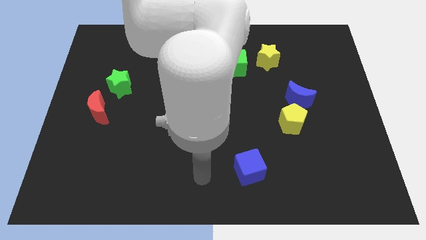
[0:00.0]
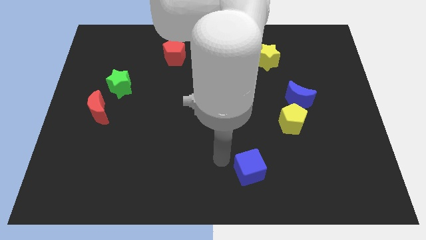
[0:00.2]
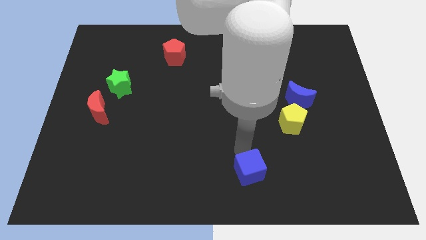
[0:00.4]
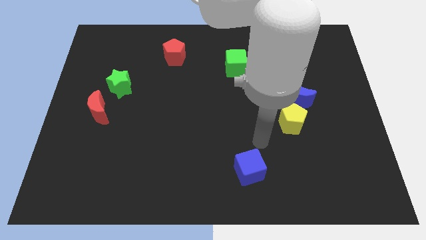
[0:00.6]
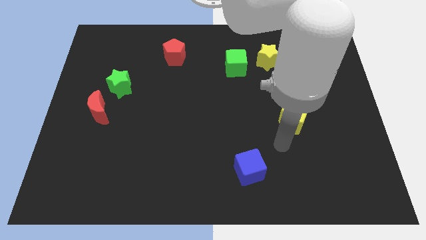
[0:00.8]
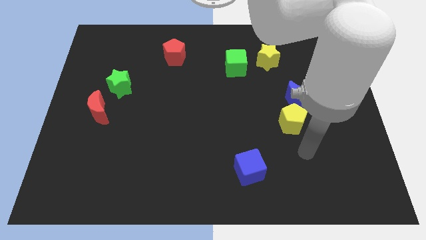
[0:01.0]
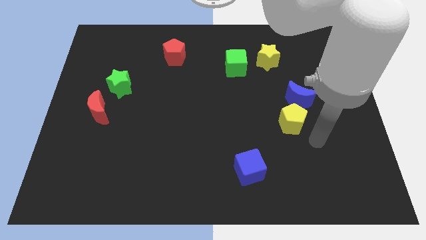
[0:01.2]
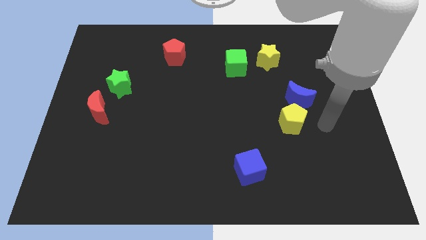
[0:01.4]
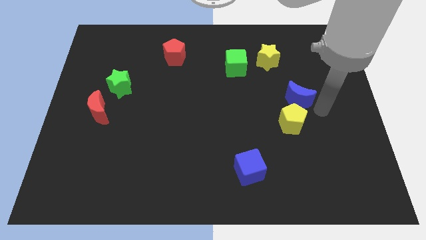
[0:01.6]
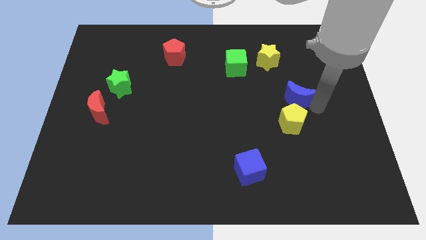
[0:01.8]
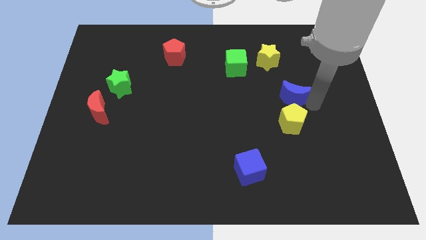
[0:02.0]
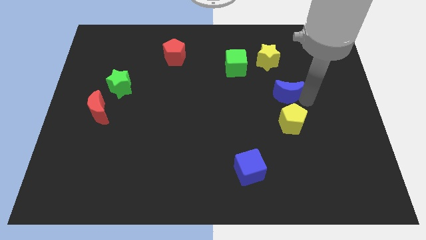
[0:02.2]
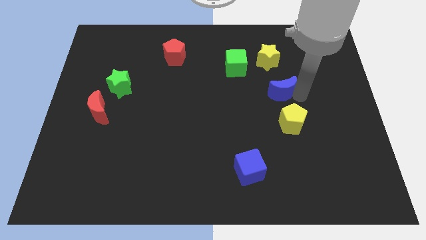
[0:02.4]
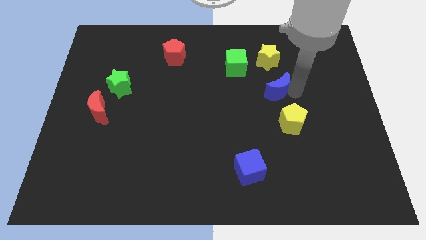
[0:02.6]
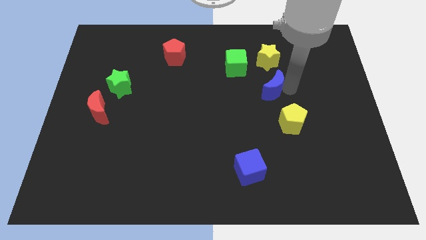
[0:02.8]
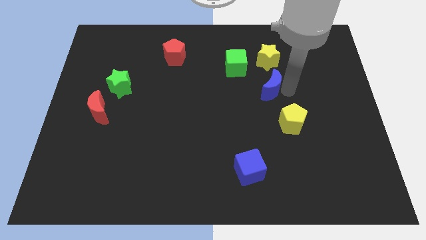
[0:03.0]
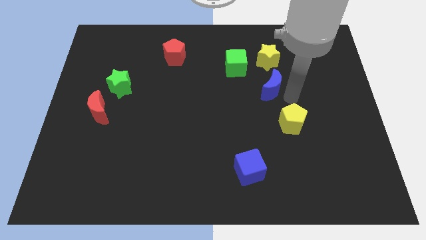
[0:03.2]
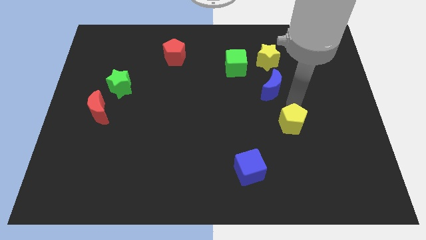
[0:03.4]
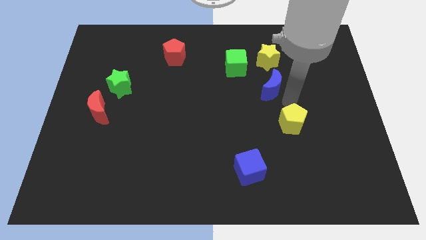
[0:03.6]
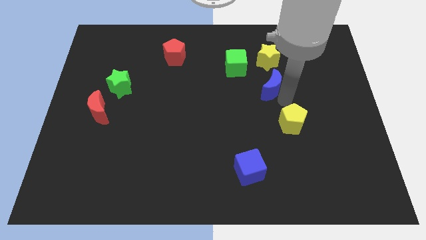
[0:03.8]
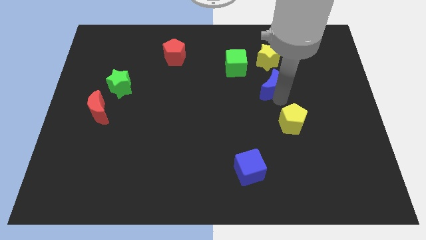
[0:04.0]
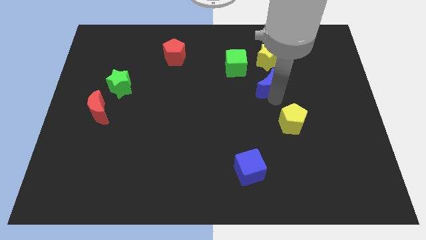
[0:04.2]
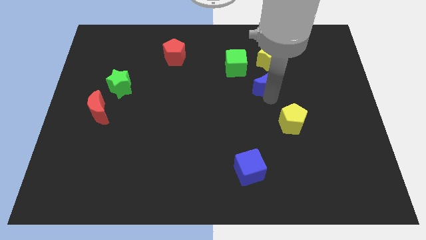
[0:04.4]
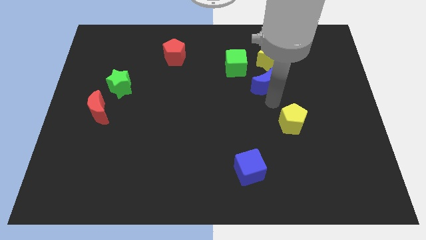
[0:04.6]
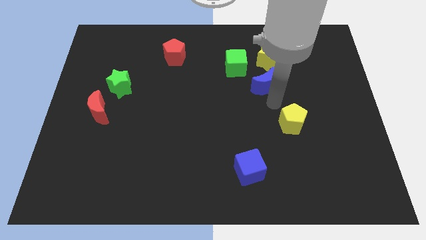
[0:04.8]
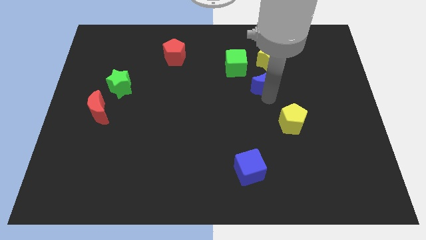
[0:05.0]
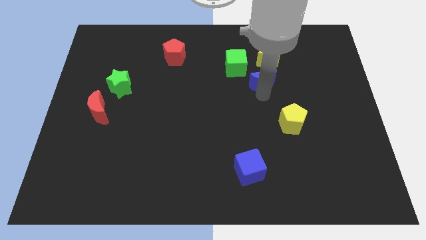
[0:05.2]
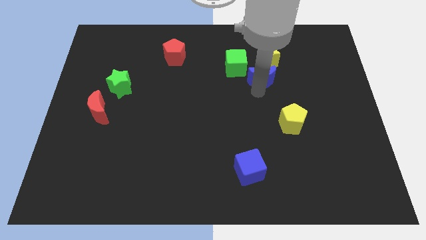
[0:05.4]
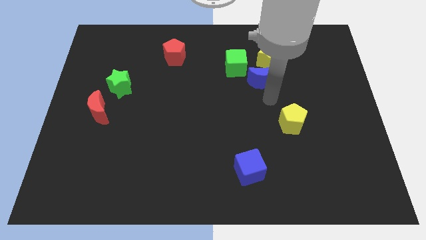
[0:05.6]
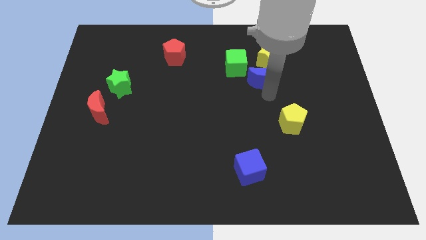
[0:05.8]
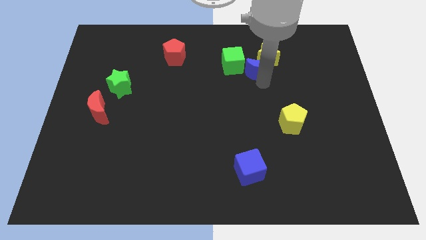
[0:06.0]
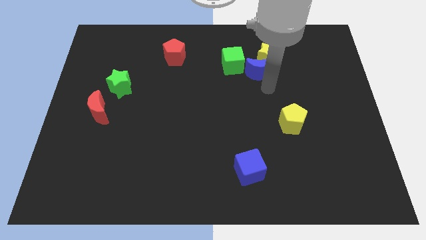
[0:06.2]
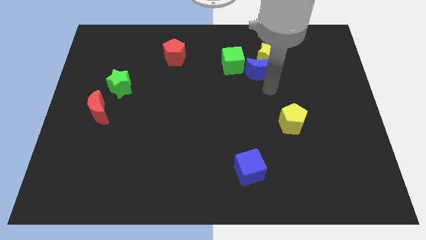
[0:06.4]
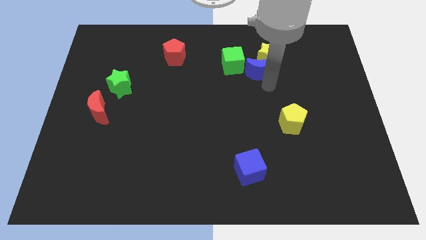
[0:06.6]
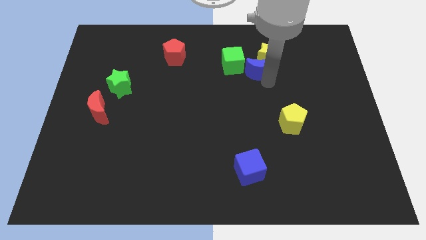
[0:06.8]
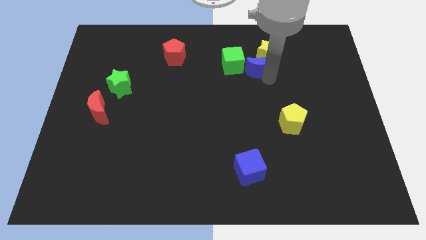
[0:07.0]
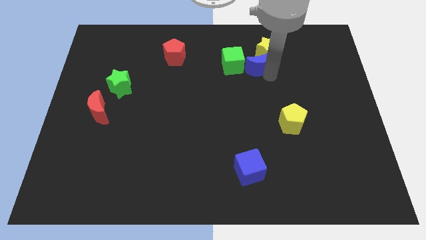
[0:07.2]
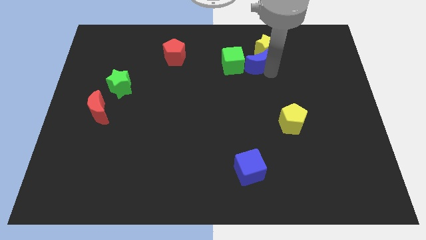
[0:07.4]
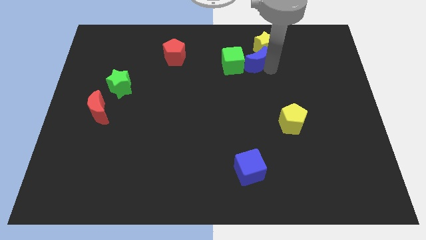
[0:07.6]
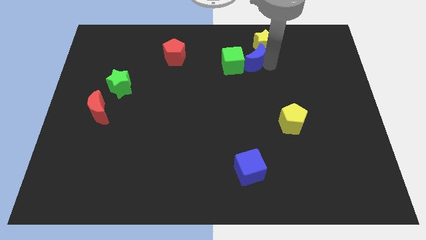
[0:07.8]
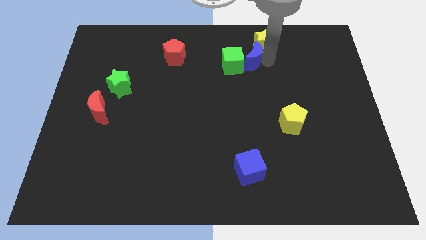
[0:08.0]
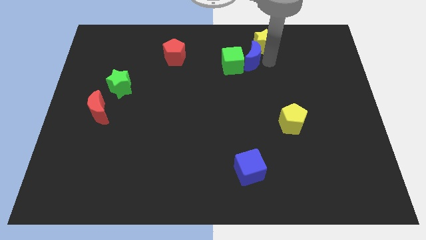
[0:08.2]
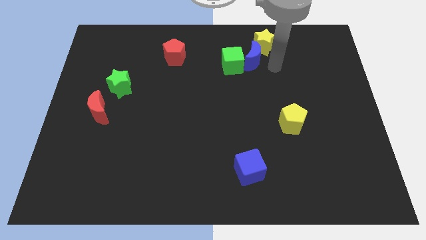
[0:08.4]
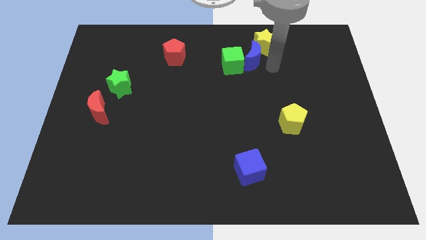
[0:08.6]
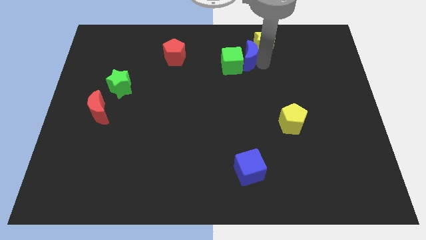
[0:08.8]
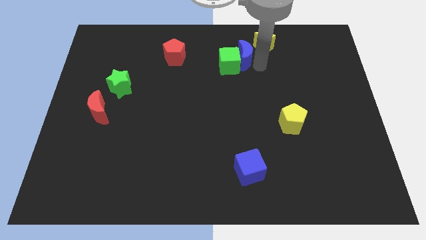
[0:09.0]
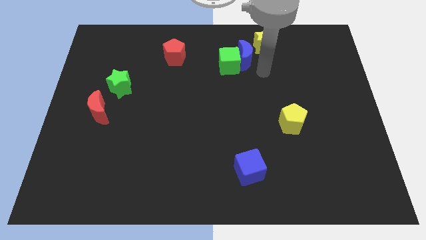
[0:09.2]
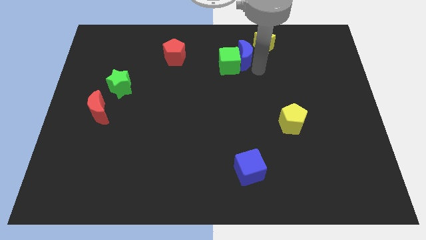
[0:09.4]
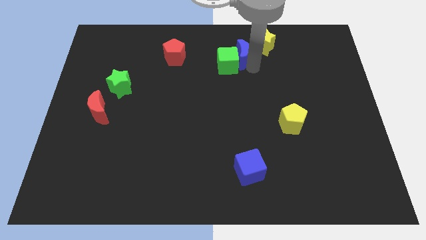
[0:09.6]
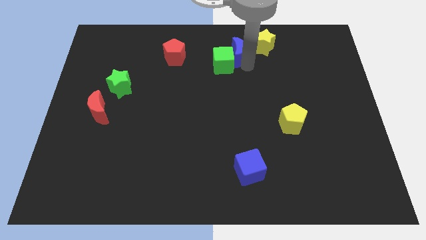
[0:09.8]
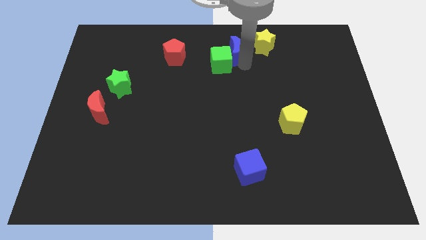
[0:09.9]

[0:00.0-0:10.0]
push the blue moon to the top

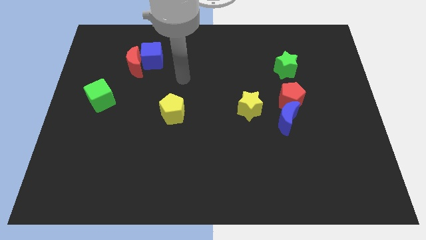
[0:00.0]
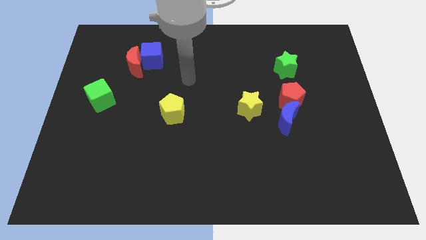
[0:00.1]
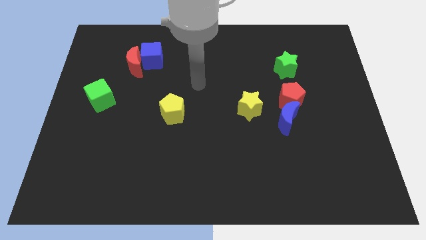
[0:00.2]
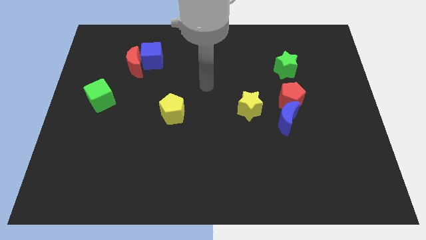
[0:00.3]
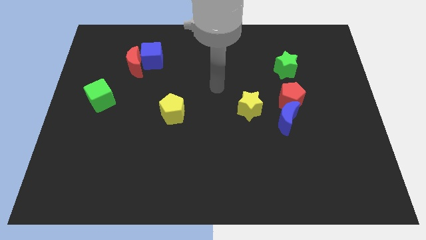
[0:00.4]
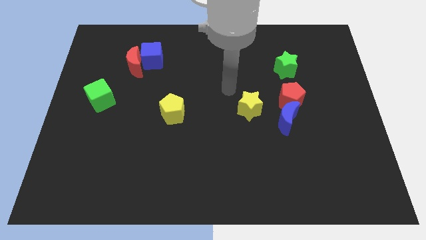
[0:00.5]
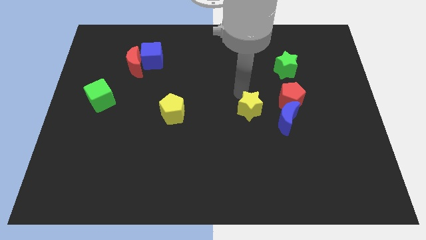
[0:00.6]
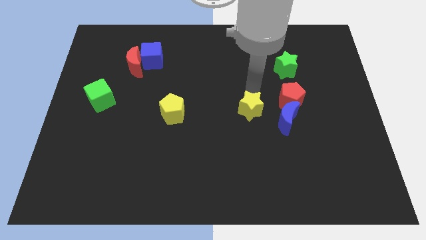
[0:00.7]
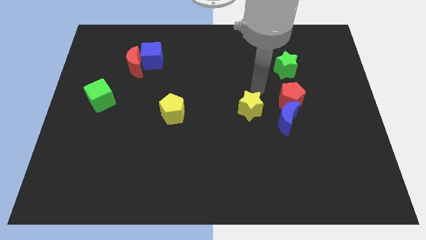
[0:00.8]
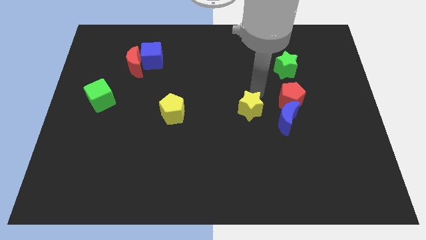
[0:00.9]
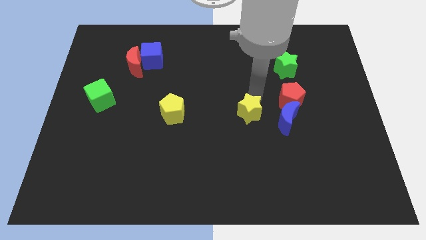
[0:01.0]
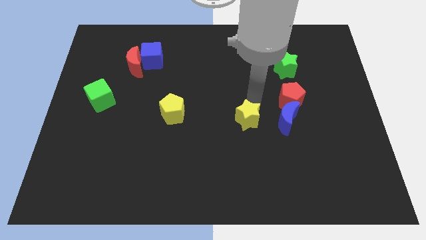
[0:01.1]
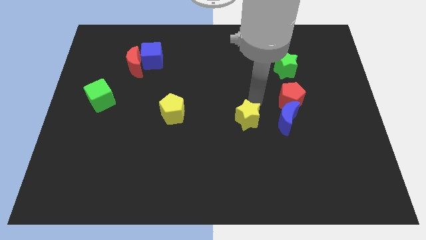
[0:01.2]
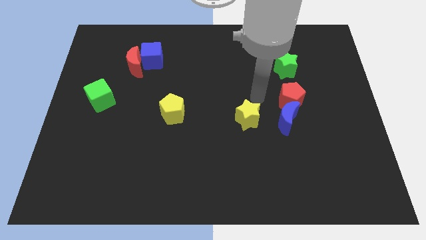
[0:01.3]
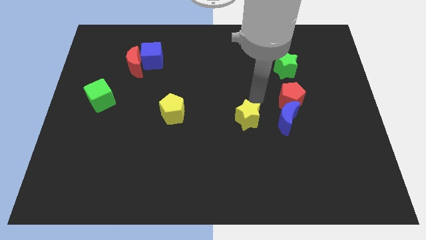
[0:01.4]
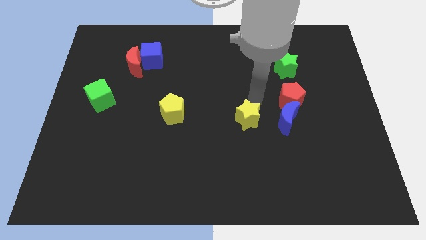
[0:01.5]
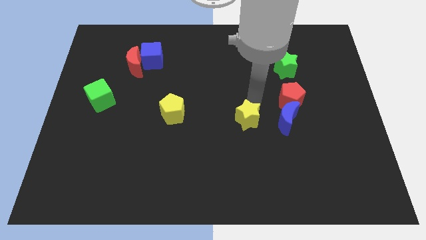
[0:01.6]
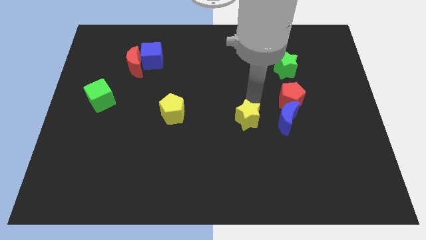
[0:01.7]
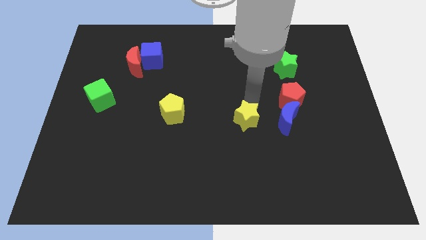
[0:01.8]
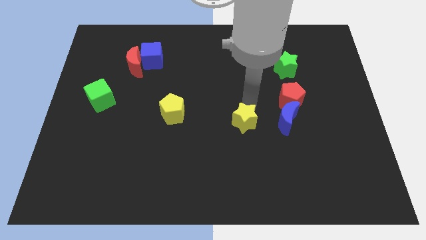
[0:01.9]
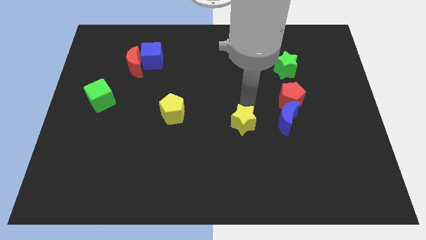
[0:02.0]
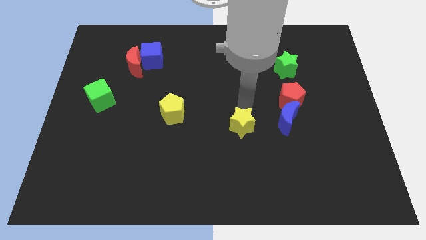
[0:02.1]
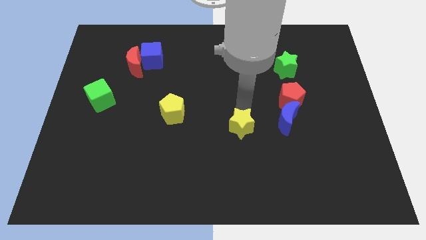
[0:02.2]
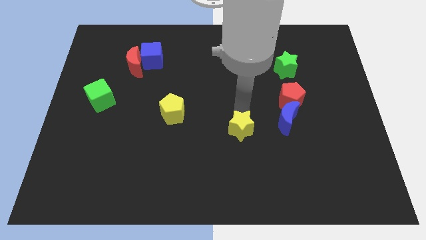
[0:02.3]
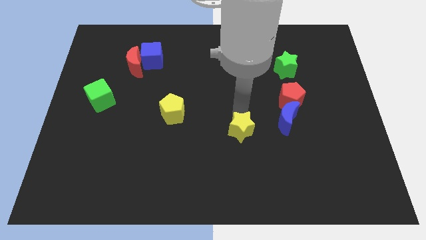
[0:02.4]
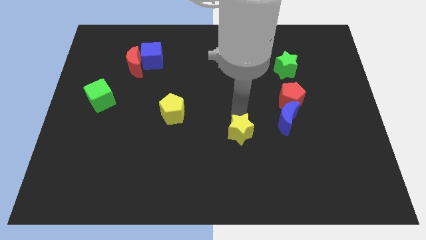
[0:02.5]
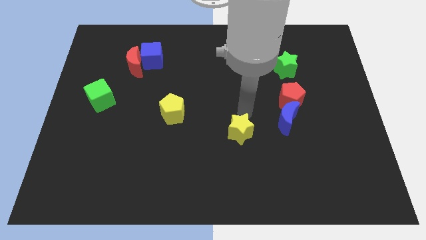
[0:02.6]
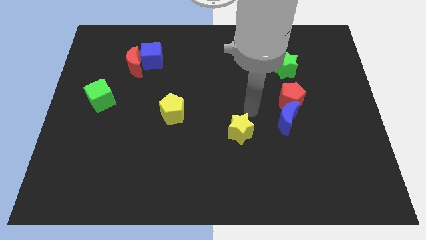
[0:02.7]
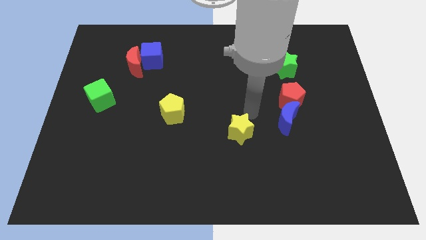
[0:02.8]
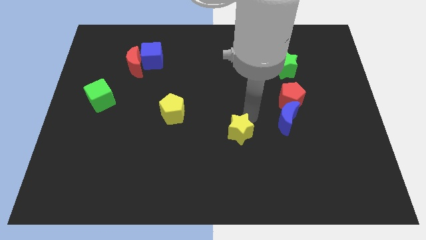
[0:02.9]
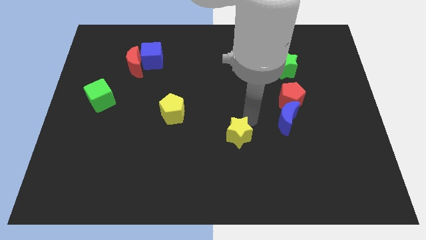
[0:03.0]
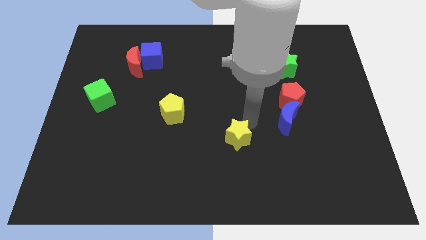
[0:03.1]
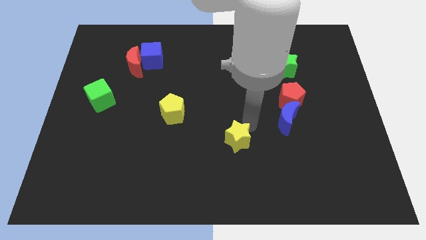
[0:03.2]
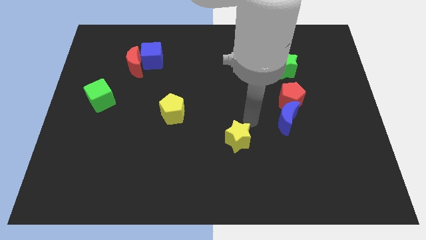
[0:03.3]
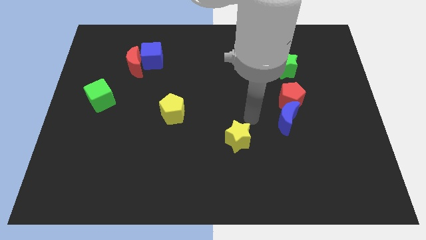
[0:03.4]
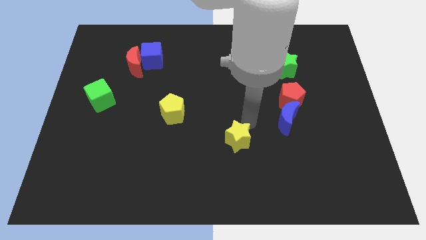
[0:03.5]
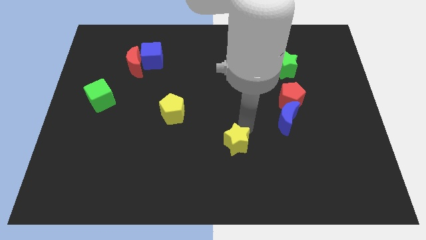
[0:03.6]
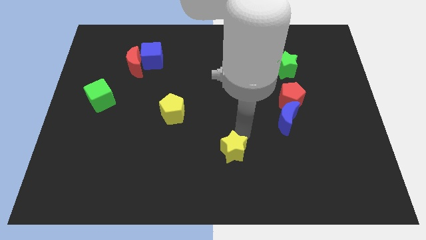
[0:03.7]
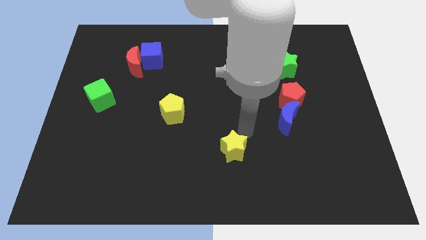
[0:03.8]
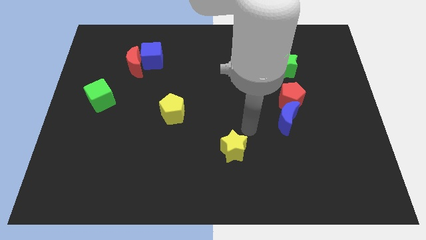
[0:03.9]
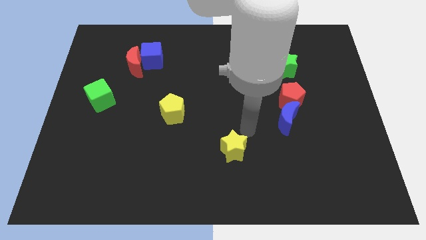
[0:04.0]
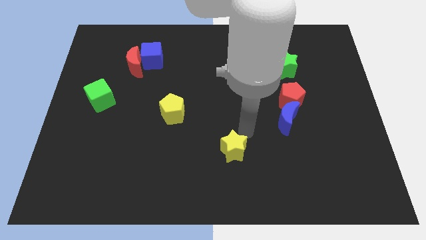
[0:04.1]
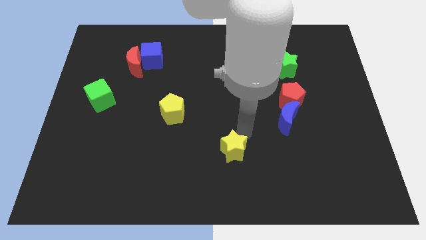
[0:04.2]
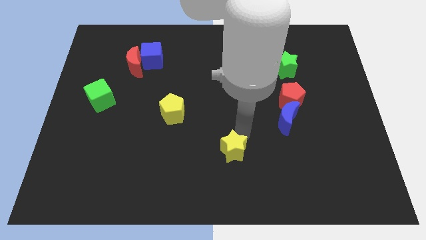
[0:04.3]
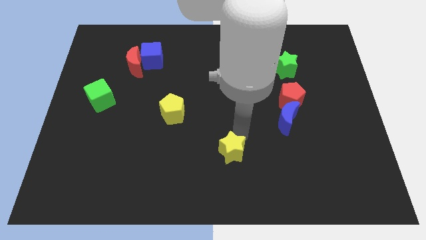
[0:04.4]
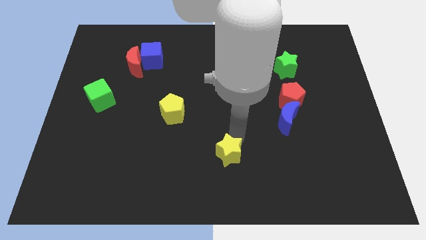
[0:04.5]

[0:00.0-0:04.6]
move the yellow star to the bottom side
